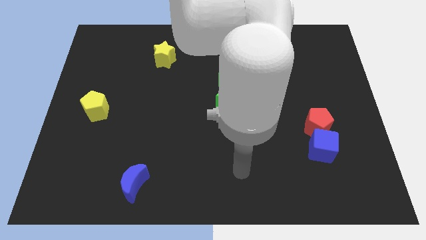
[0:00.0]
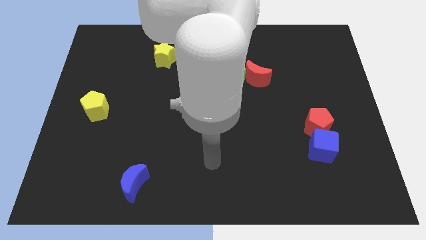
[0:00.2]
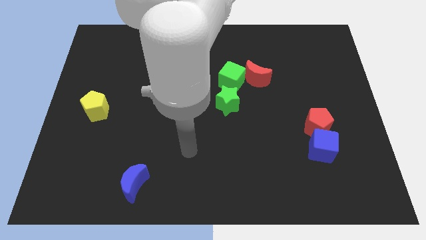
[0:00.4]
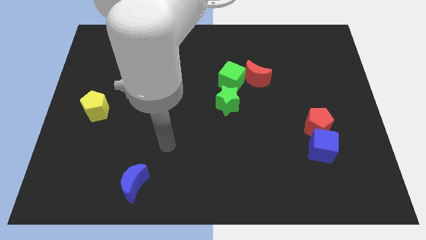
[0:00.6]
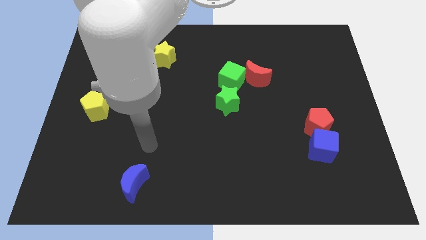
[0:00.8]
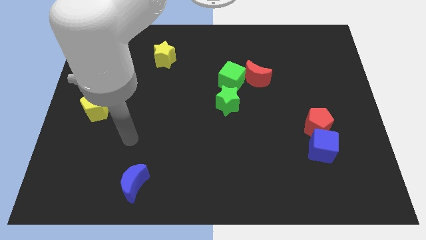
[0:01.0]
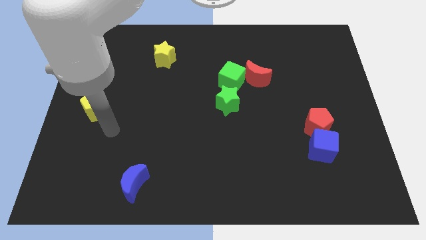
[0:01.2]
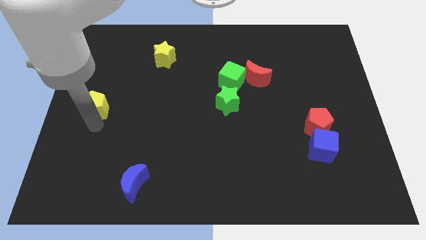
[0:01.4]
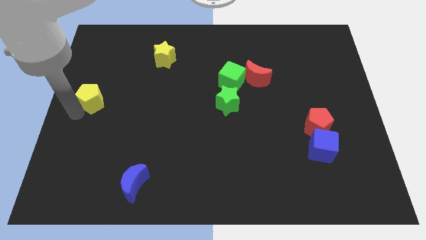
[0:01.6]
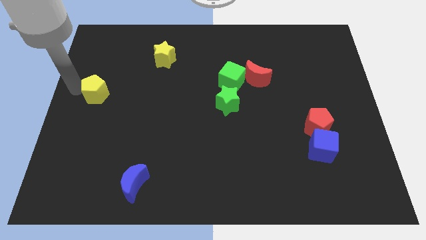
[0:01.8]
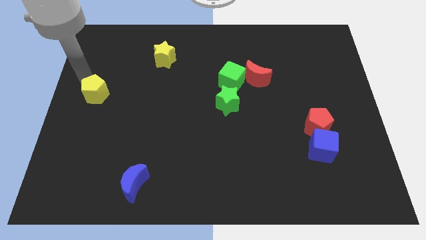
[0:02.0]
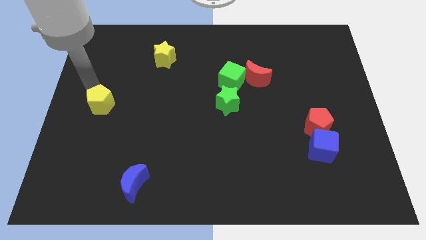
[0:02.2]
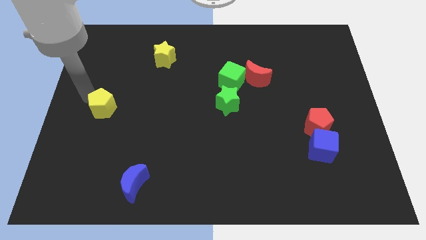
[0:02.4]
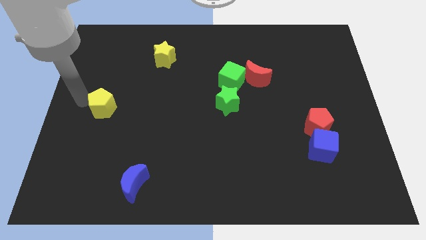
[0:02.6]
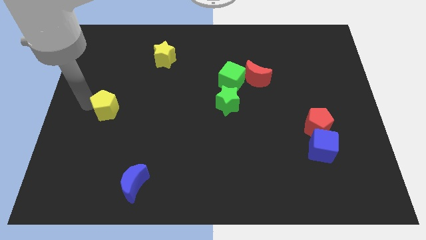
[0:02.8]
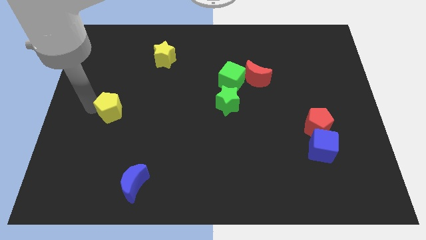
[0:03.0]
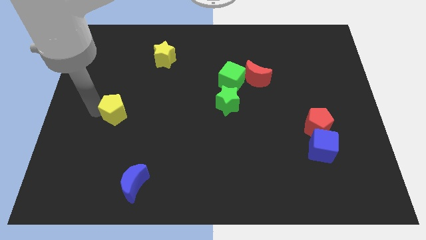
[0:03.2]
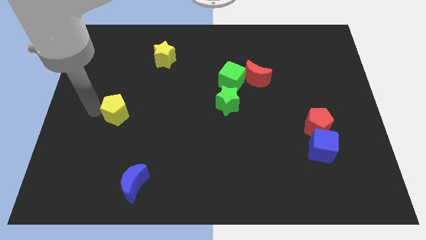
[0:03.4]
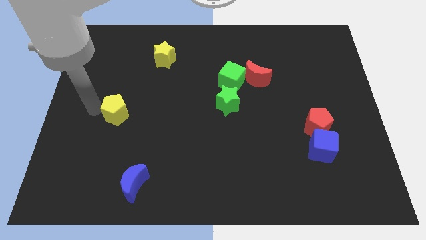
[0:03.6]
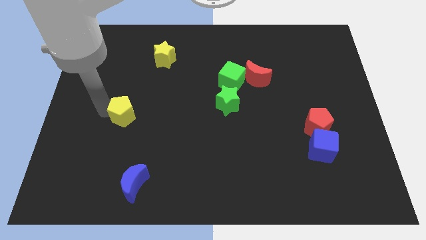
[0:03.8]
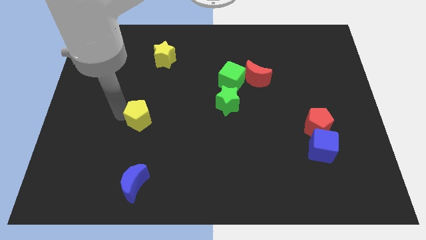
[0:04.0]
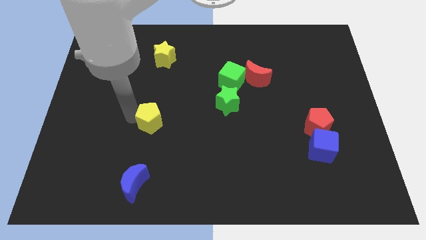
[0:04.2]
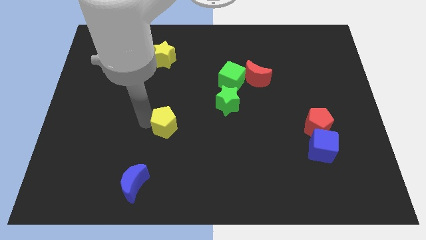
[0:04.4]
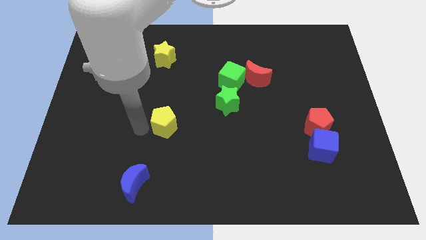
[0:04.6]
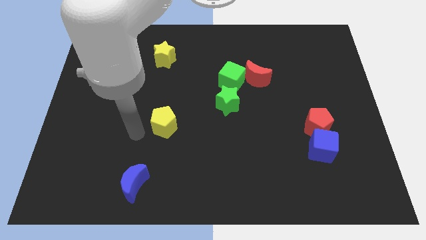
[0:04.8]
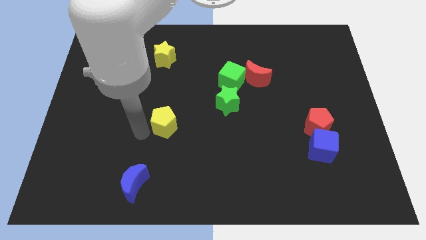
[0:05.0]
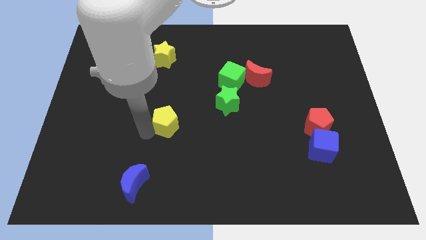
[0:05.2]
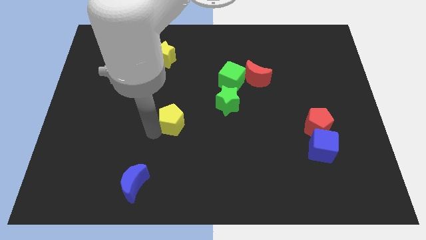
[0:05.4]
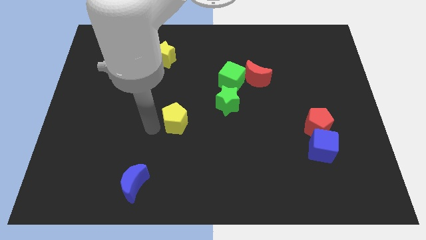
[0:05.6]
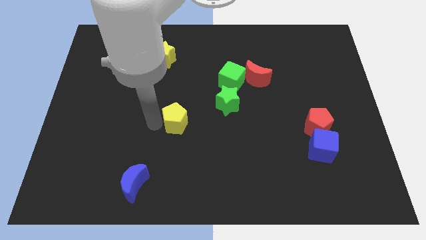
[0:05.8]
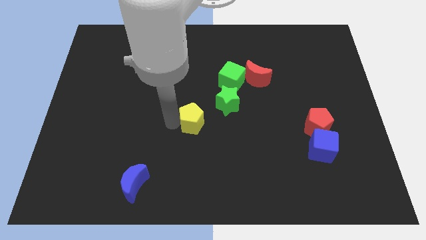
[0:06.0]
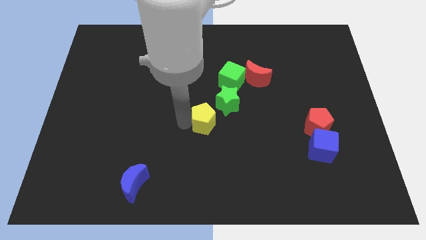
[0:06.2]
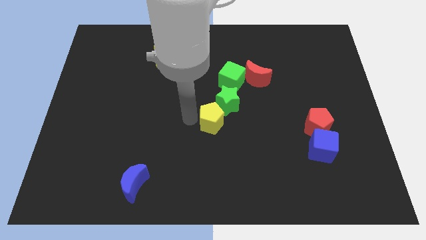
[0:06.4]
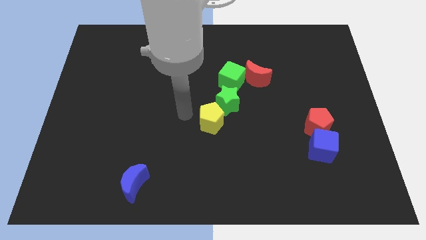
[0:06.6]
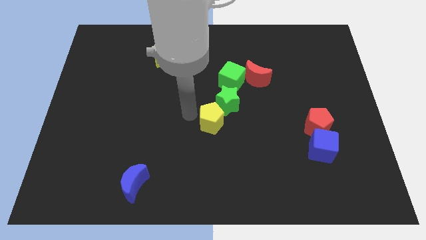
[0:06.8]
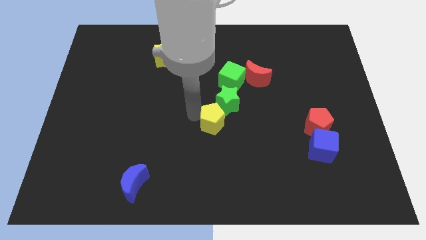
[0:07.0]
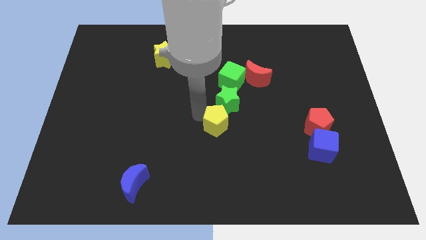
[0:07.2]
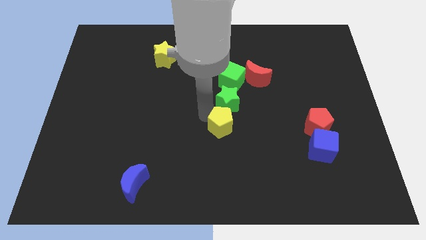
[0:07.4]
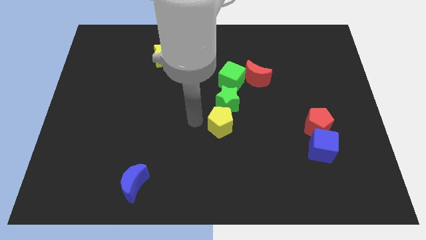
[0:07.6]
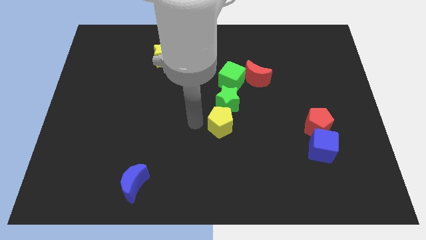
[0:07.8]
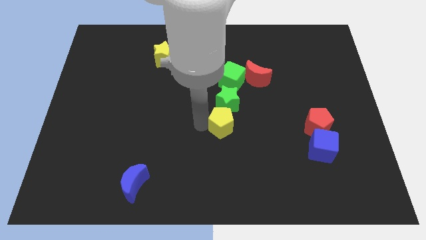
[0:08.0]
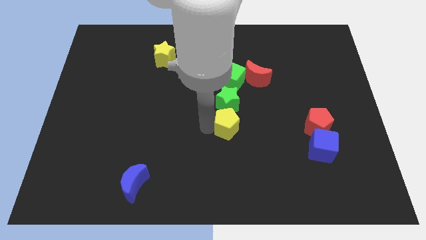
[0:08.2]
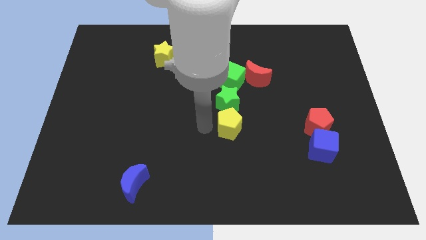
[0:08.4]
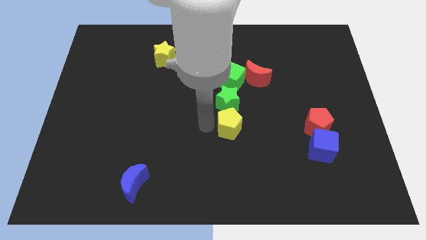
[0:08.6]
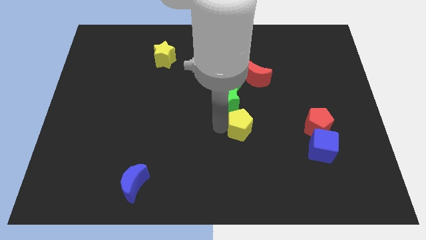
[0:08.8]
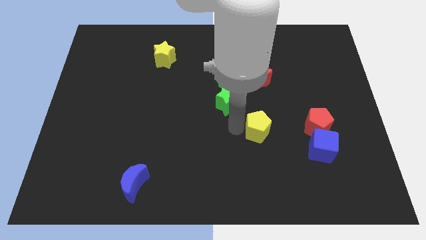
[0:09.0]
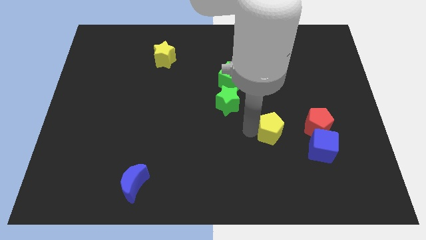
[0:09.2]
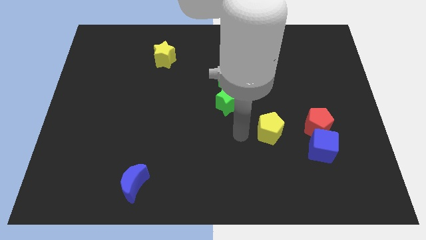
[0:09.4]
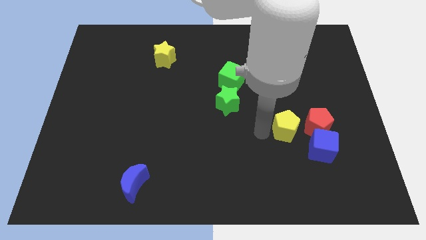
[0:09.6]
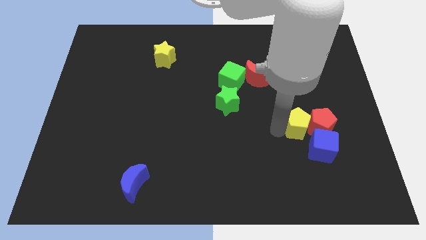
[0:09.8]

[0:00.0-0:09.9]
move the yellow pentagon next to the red pentagon

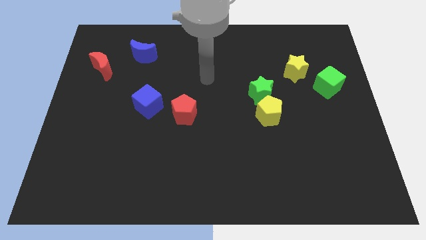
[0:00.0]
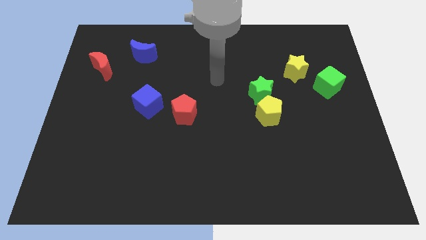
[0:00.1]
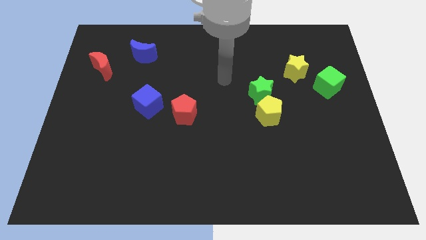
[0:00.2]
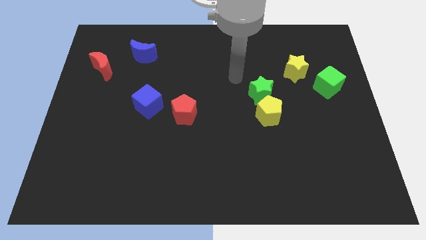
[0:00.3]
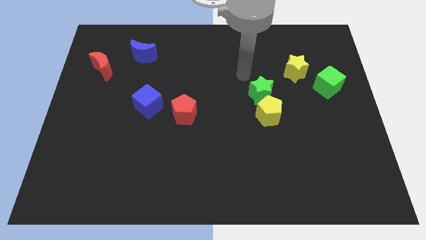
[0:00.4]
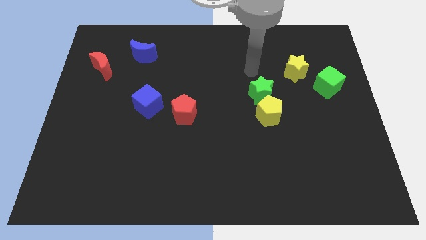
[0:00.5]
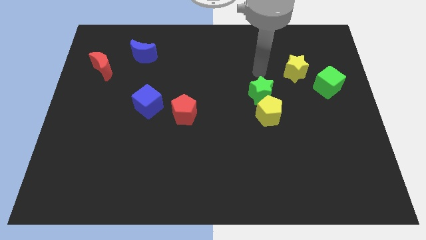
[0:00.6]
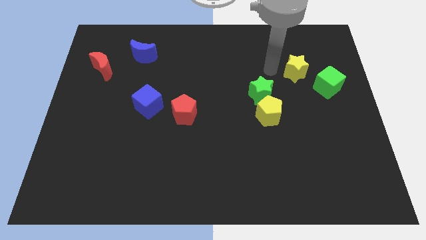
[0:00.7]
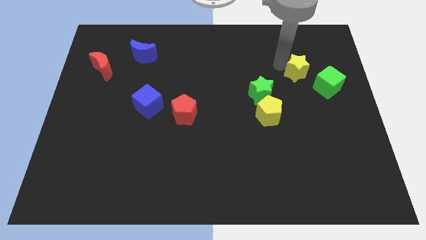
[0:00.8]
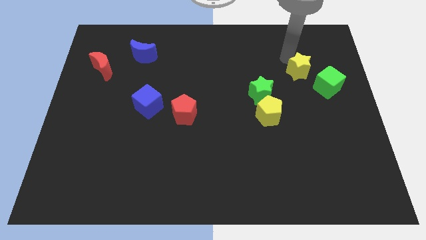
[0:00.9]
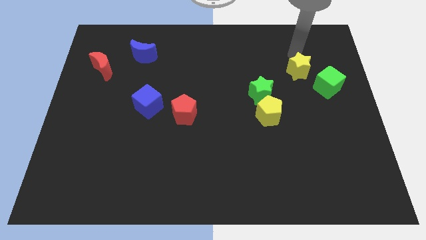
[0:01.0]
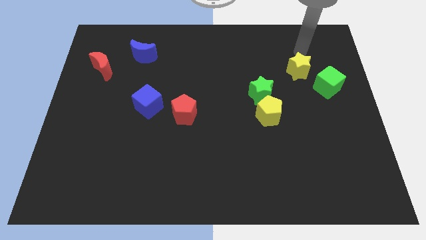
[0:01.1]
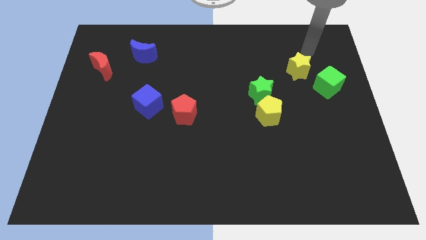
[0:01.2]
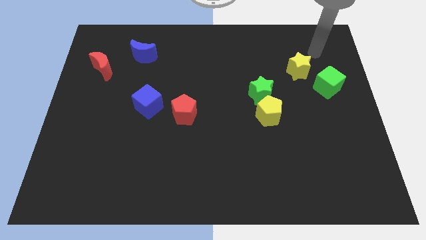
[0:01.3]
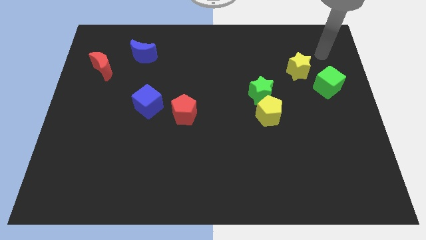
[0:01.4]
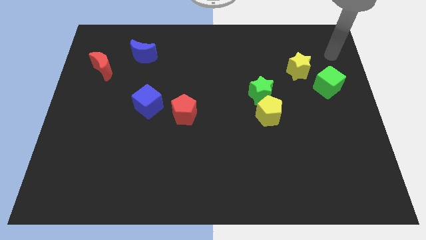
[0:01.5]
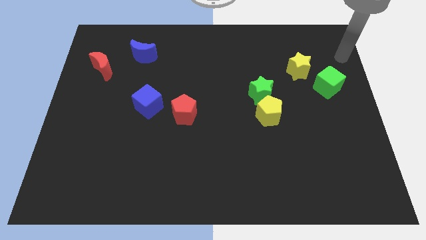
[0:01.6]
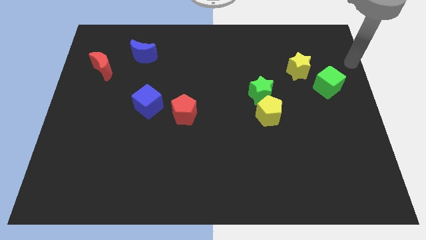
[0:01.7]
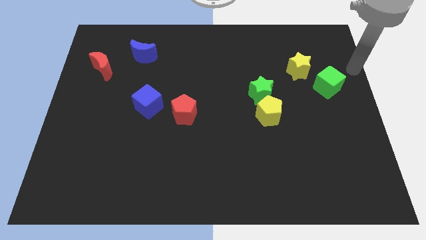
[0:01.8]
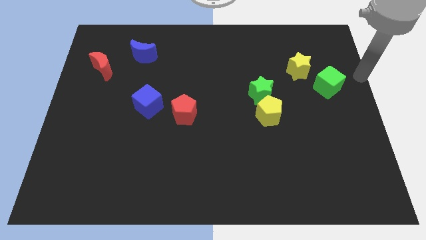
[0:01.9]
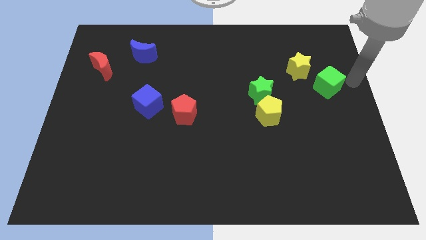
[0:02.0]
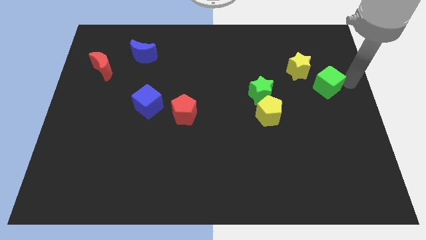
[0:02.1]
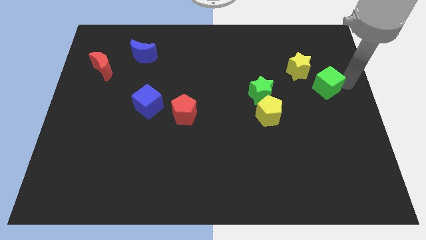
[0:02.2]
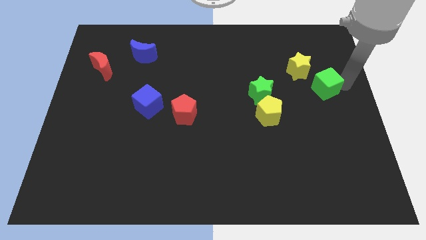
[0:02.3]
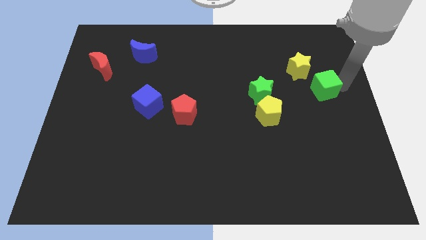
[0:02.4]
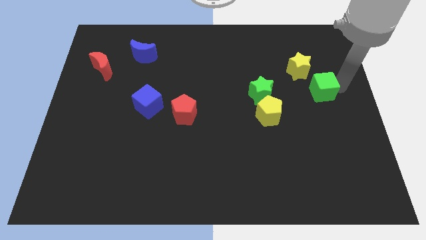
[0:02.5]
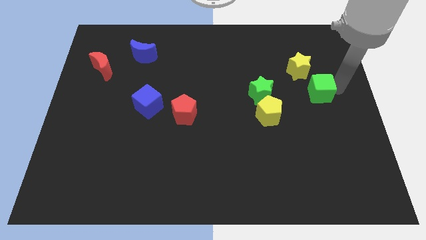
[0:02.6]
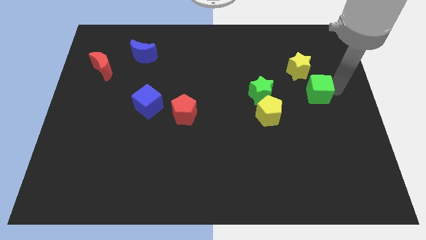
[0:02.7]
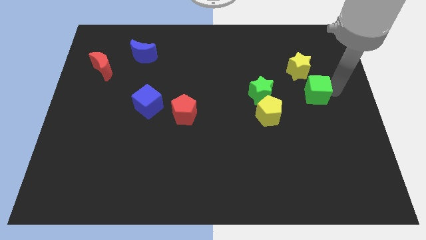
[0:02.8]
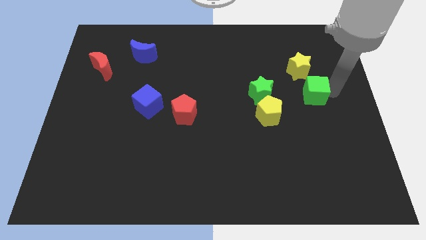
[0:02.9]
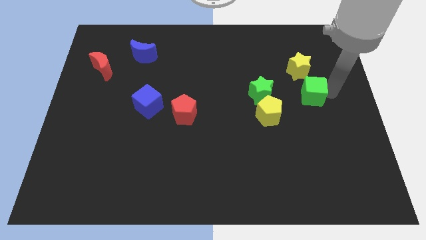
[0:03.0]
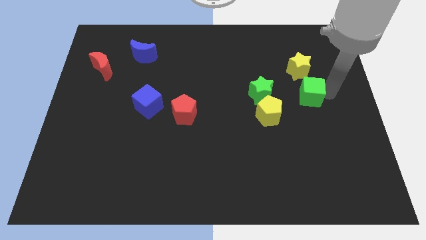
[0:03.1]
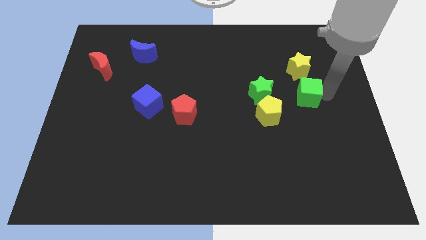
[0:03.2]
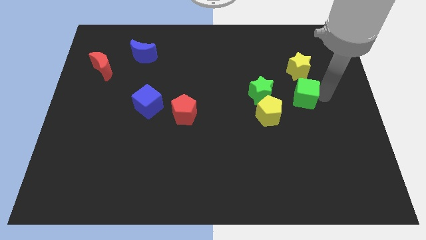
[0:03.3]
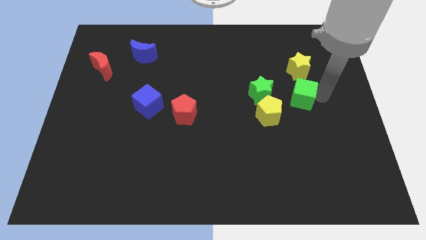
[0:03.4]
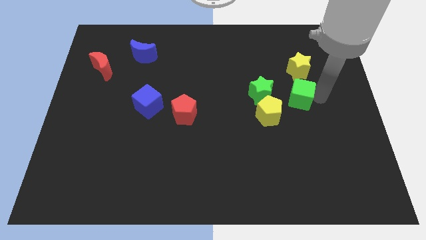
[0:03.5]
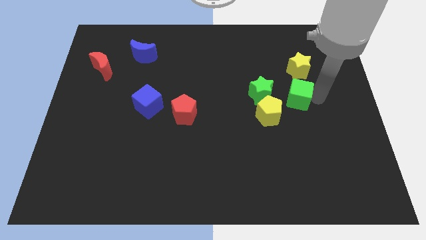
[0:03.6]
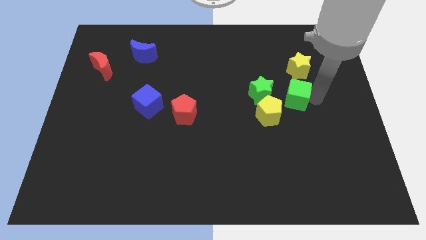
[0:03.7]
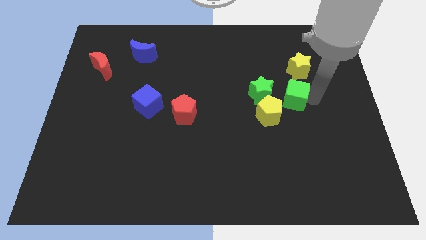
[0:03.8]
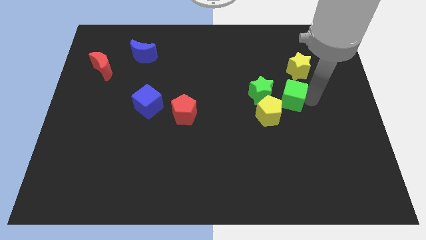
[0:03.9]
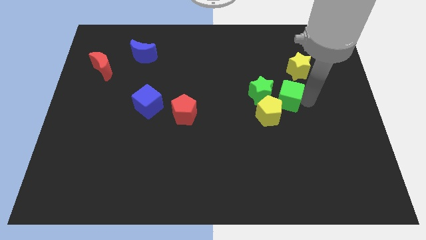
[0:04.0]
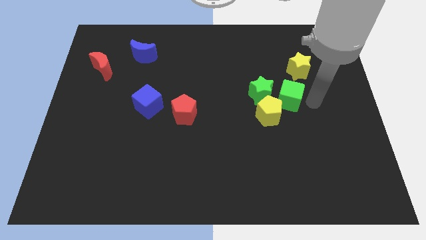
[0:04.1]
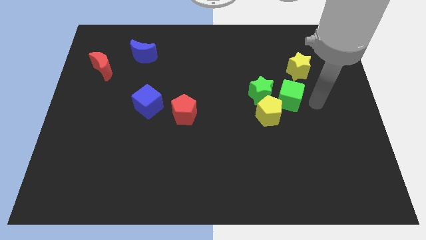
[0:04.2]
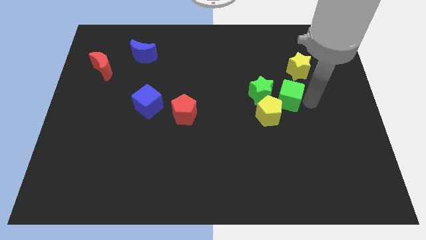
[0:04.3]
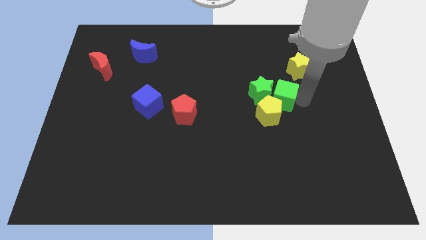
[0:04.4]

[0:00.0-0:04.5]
push the green cube towards the green star
